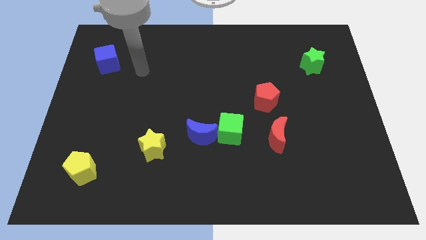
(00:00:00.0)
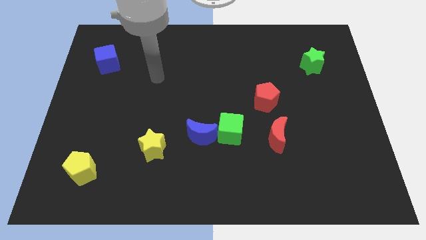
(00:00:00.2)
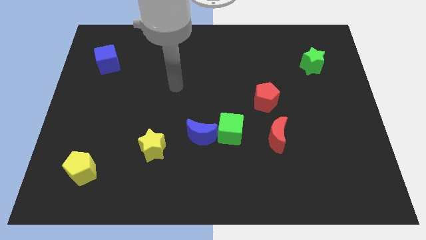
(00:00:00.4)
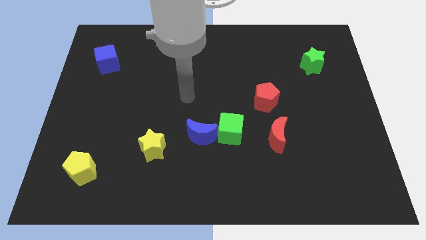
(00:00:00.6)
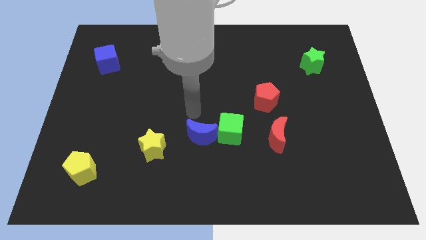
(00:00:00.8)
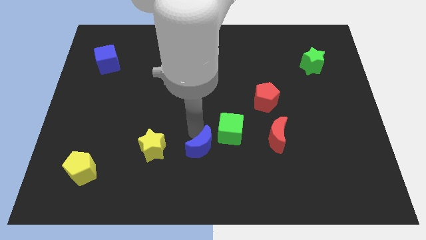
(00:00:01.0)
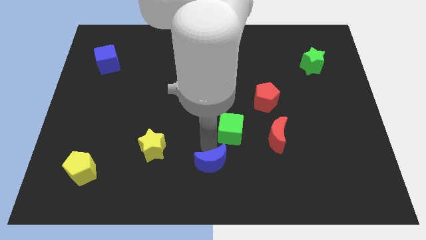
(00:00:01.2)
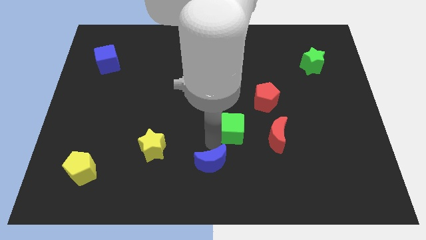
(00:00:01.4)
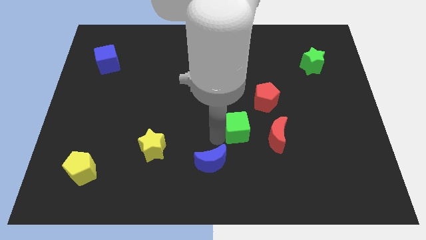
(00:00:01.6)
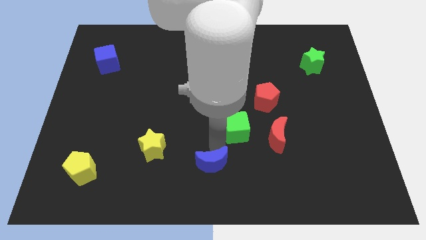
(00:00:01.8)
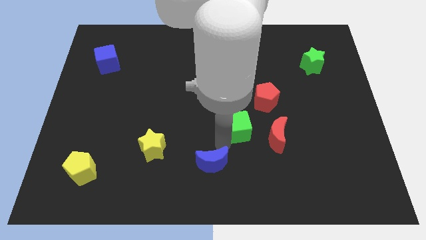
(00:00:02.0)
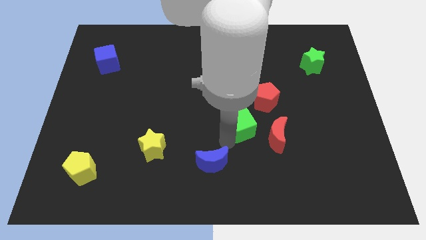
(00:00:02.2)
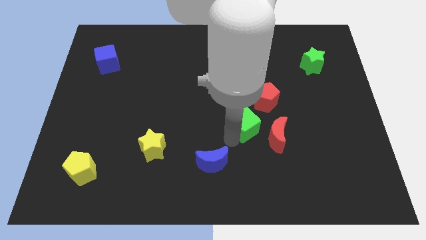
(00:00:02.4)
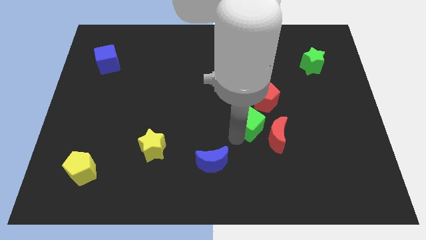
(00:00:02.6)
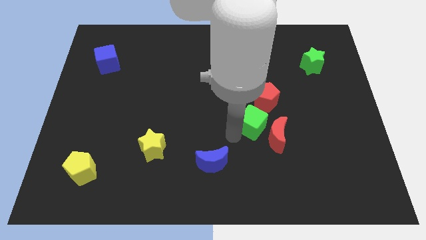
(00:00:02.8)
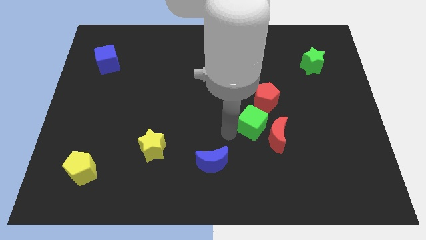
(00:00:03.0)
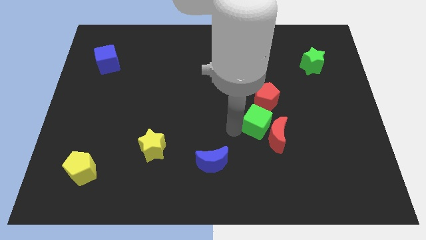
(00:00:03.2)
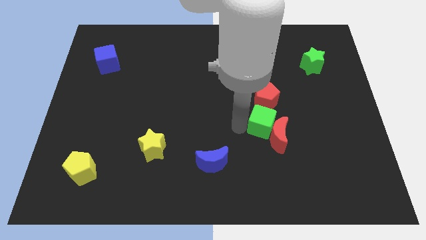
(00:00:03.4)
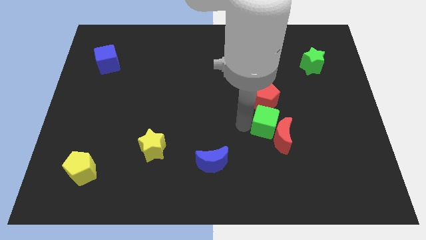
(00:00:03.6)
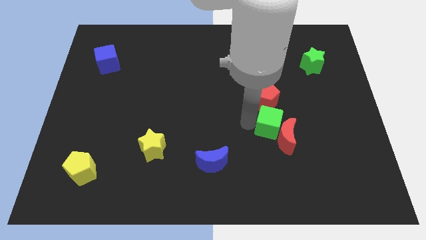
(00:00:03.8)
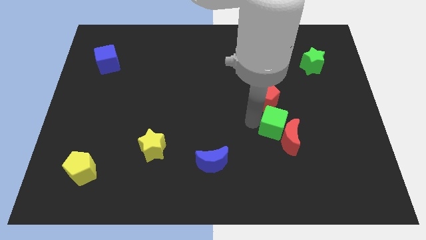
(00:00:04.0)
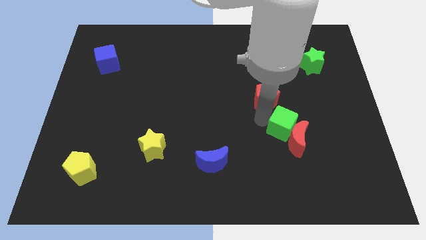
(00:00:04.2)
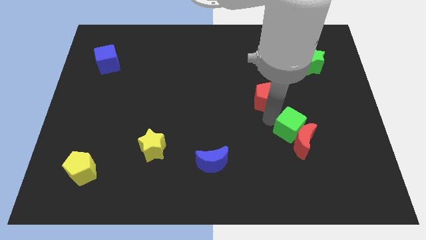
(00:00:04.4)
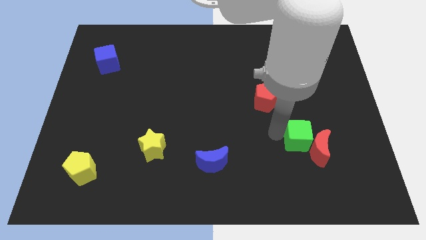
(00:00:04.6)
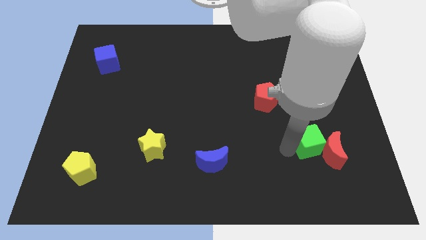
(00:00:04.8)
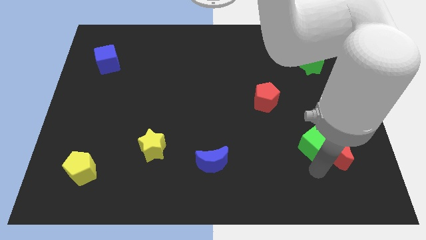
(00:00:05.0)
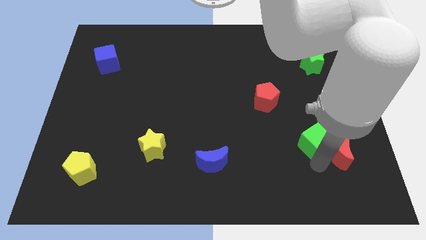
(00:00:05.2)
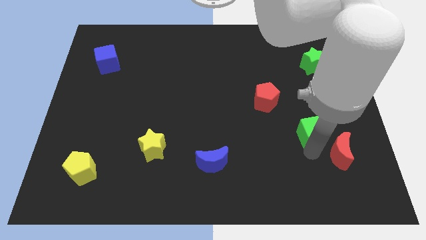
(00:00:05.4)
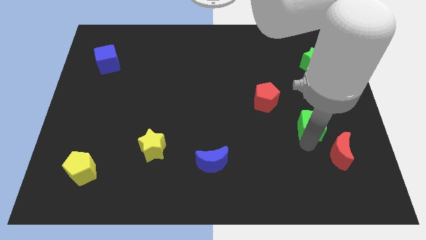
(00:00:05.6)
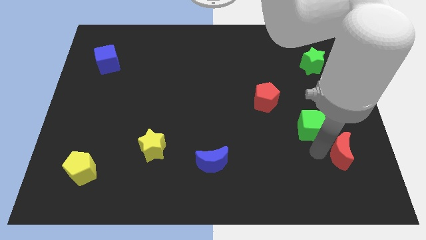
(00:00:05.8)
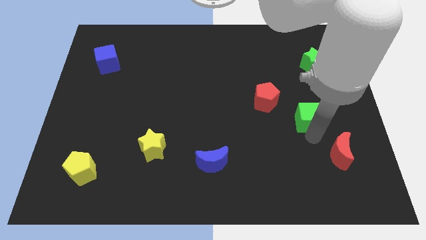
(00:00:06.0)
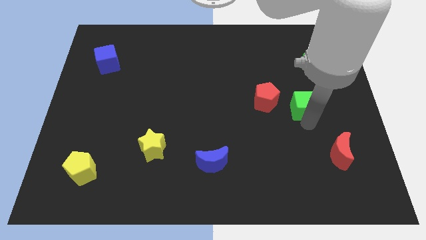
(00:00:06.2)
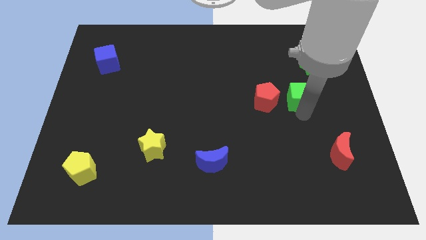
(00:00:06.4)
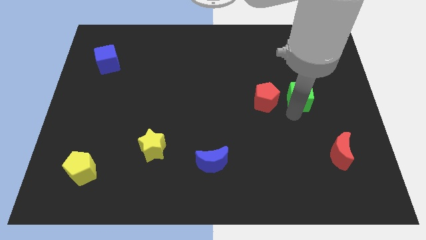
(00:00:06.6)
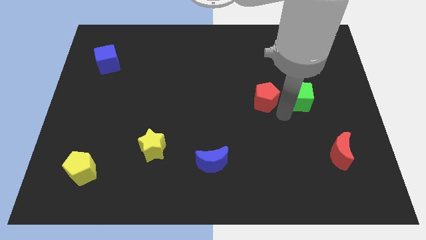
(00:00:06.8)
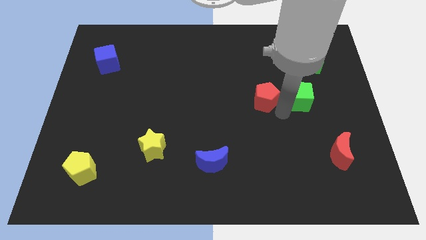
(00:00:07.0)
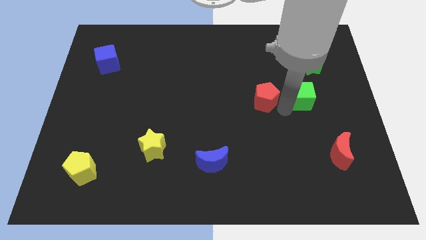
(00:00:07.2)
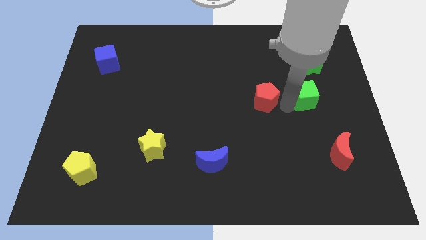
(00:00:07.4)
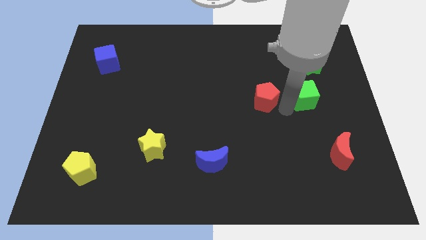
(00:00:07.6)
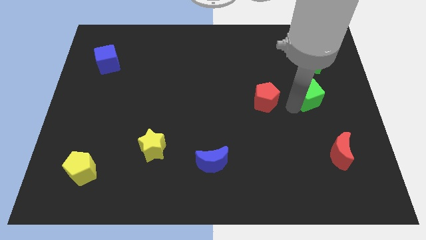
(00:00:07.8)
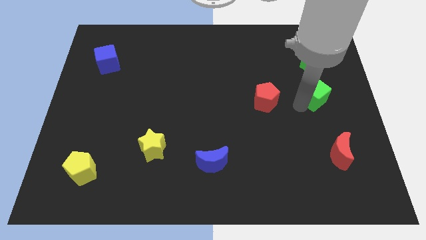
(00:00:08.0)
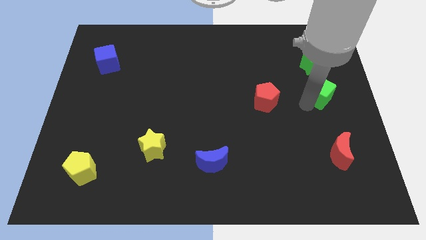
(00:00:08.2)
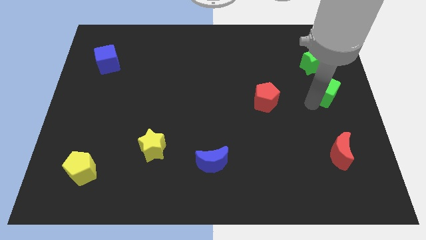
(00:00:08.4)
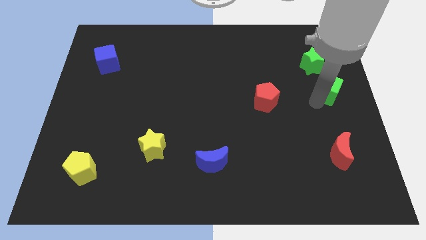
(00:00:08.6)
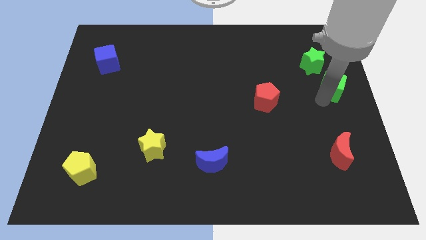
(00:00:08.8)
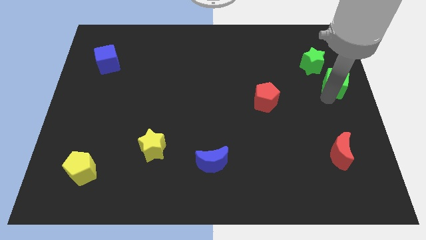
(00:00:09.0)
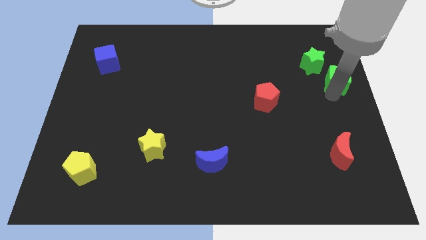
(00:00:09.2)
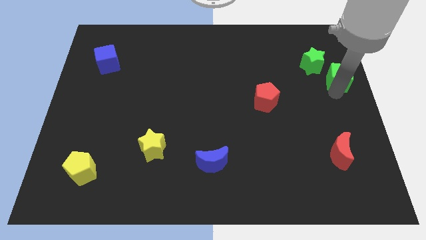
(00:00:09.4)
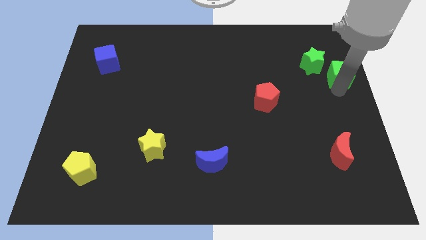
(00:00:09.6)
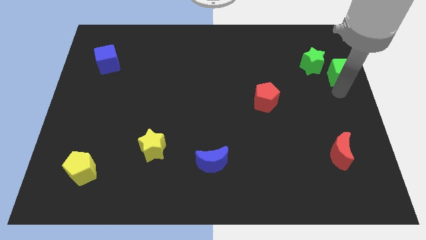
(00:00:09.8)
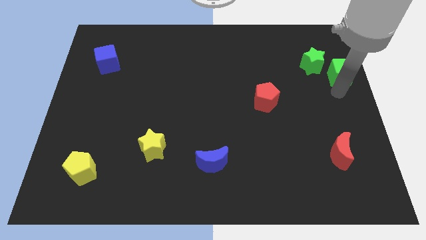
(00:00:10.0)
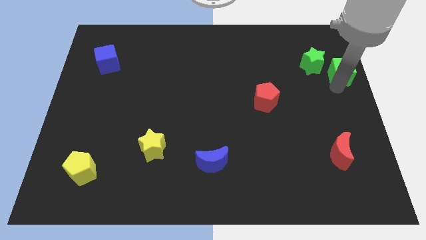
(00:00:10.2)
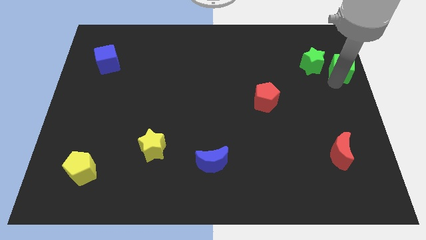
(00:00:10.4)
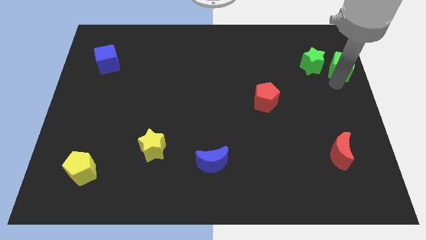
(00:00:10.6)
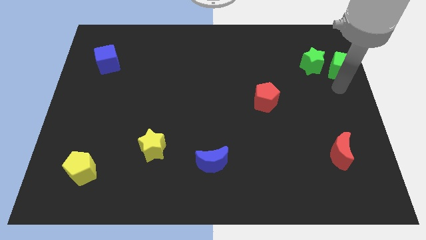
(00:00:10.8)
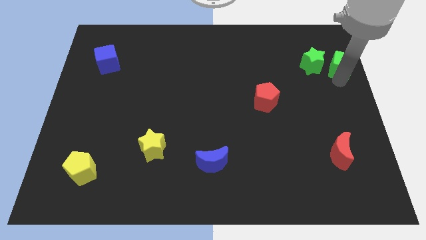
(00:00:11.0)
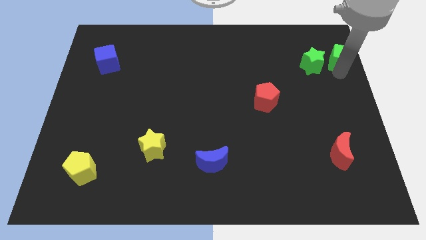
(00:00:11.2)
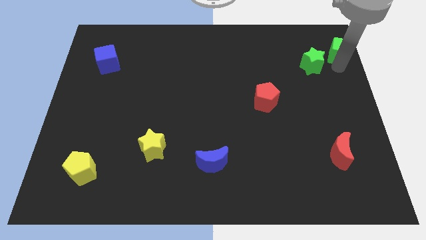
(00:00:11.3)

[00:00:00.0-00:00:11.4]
put the green cube to the top right of the board

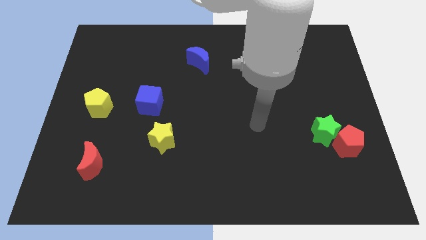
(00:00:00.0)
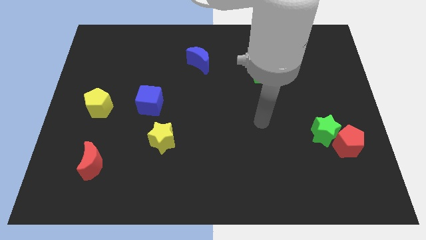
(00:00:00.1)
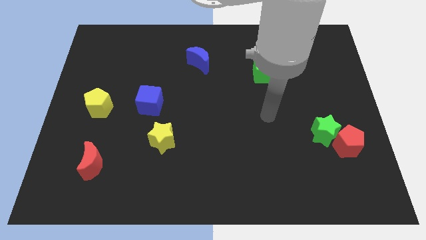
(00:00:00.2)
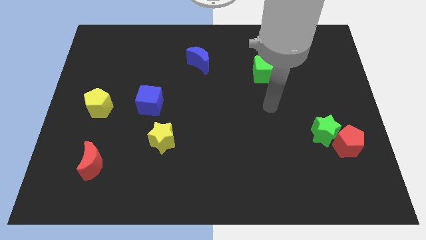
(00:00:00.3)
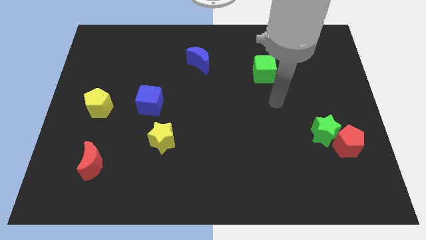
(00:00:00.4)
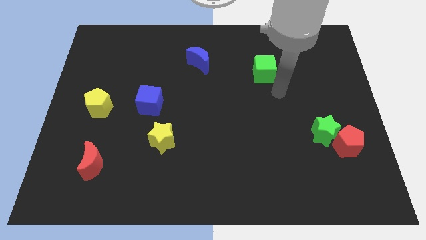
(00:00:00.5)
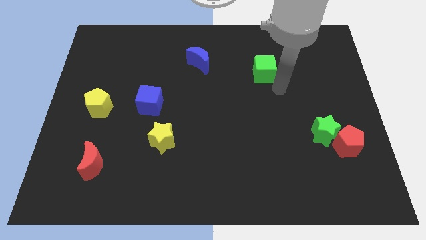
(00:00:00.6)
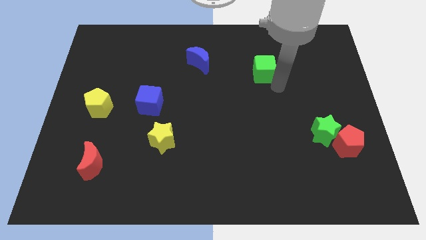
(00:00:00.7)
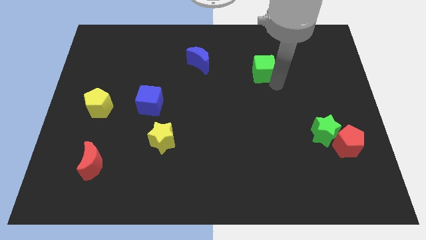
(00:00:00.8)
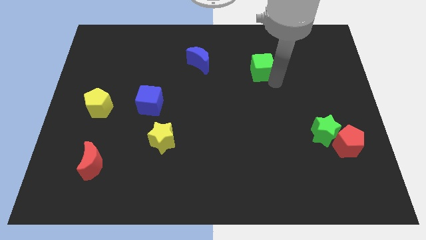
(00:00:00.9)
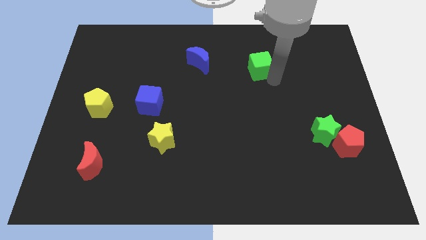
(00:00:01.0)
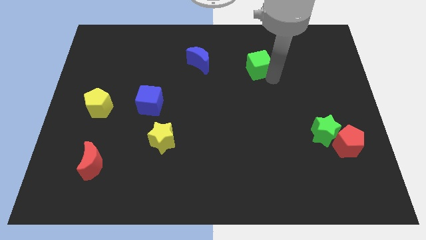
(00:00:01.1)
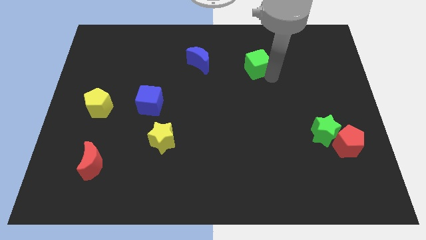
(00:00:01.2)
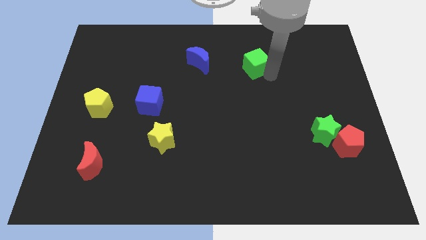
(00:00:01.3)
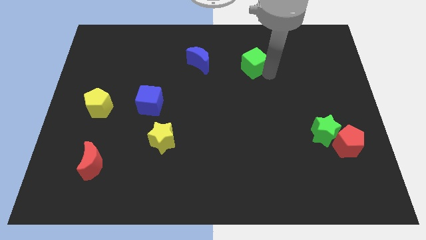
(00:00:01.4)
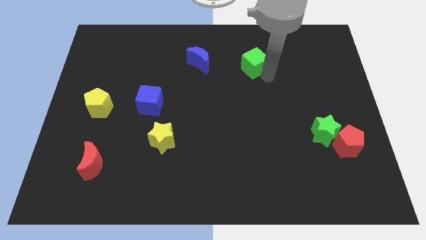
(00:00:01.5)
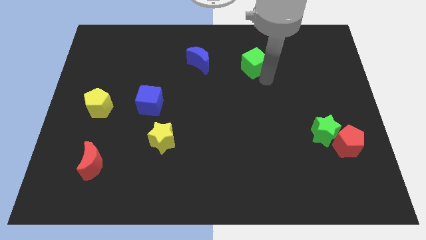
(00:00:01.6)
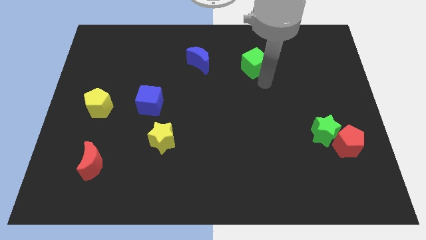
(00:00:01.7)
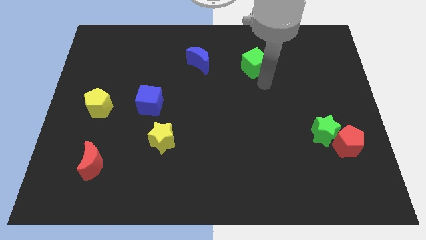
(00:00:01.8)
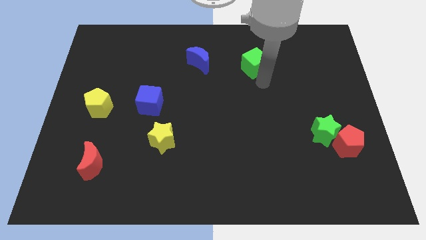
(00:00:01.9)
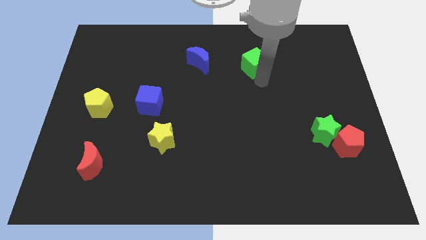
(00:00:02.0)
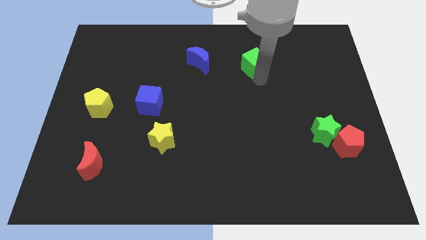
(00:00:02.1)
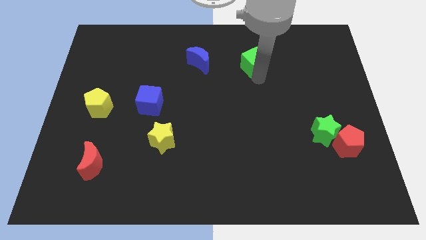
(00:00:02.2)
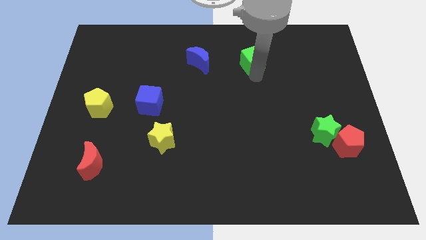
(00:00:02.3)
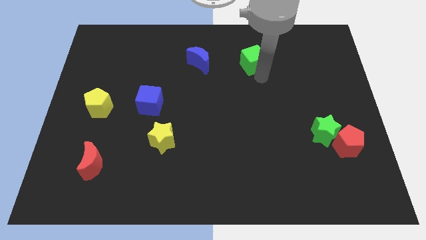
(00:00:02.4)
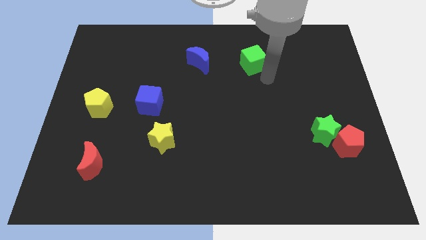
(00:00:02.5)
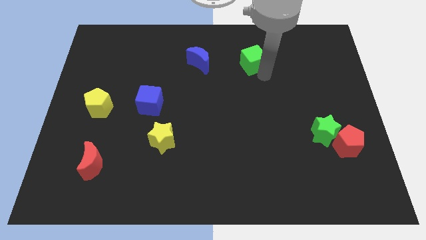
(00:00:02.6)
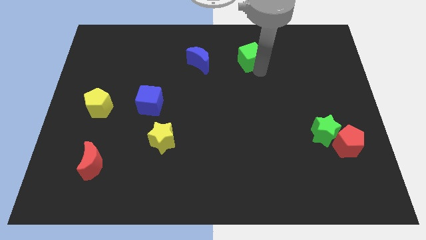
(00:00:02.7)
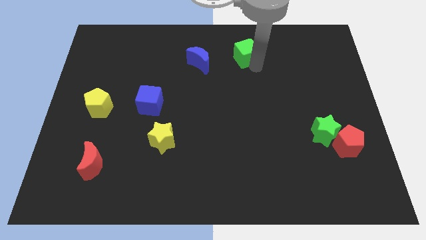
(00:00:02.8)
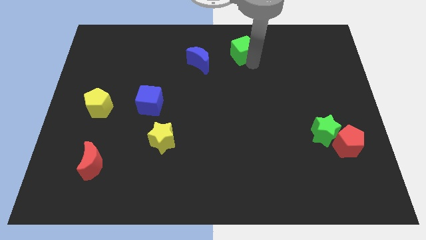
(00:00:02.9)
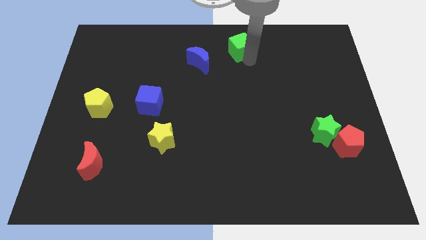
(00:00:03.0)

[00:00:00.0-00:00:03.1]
push the green cube to the top side
